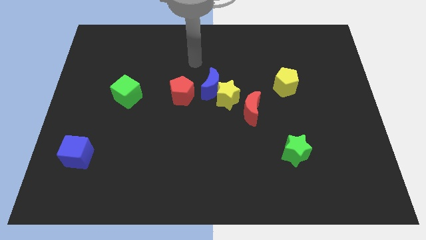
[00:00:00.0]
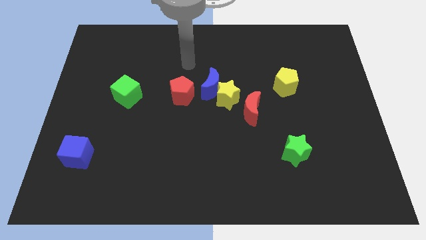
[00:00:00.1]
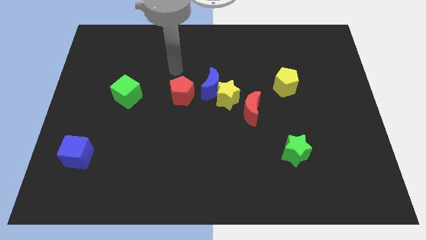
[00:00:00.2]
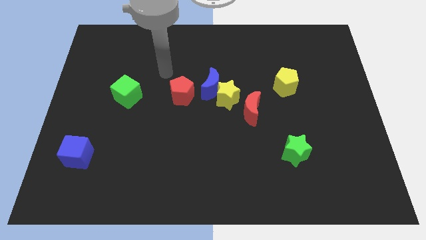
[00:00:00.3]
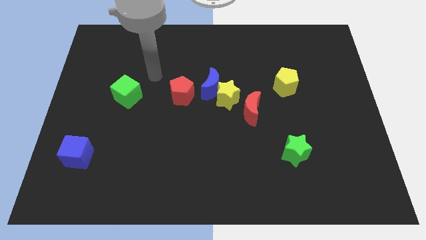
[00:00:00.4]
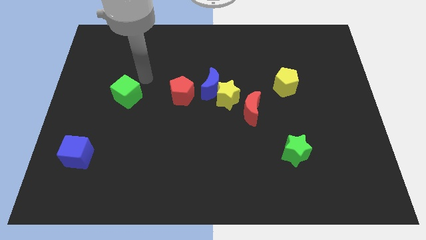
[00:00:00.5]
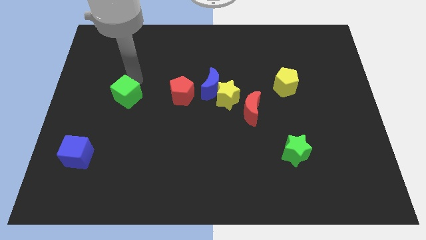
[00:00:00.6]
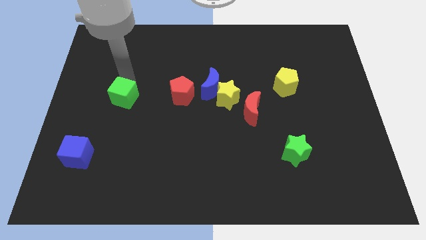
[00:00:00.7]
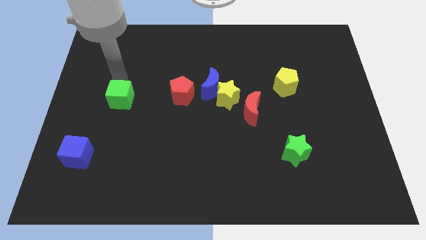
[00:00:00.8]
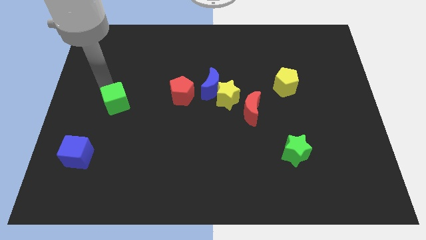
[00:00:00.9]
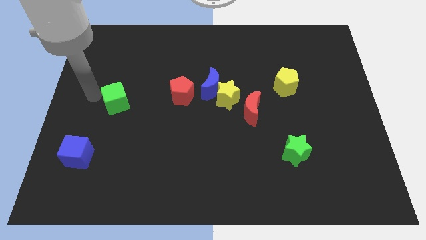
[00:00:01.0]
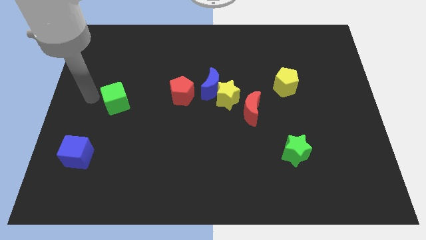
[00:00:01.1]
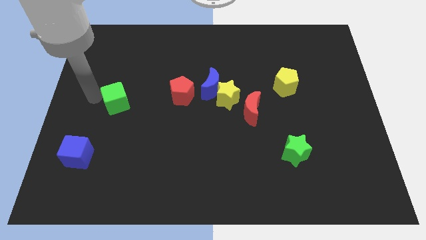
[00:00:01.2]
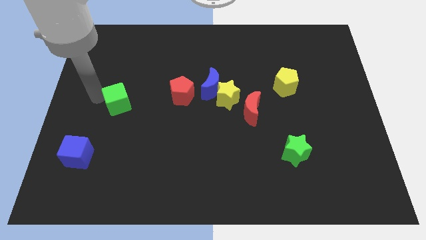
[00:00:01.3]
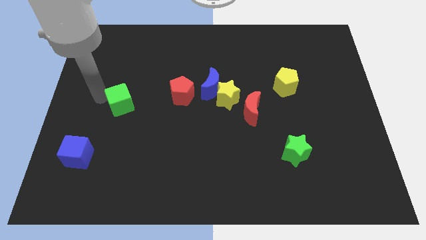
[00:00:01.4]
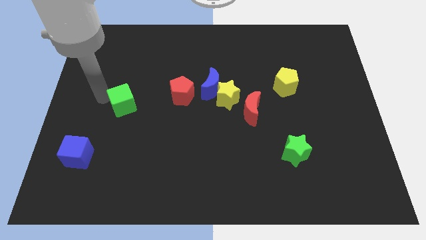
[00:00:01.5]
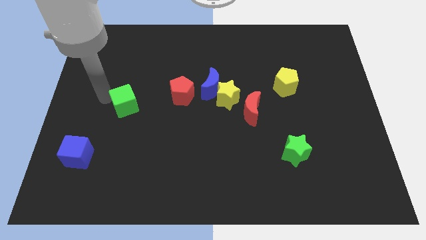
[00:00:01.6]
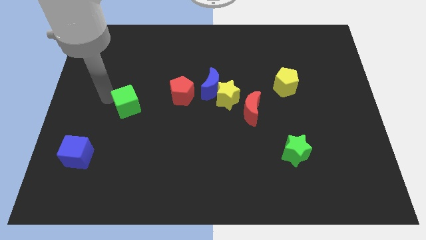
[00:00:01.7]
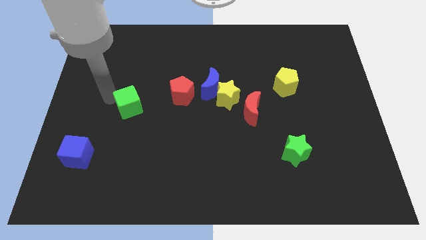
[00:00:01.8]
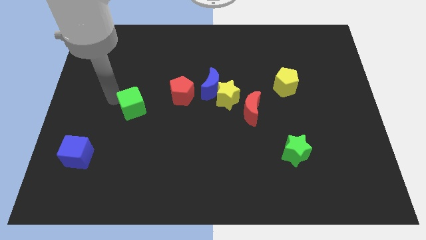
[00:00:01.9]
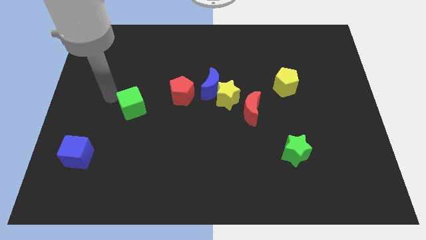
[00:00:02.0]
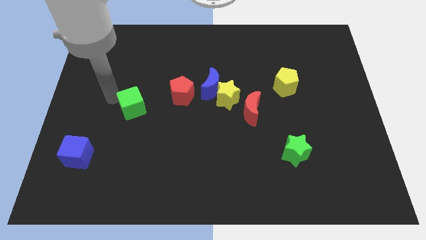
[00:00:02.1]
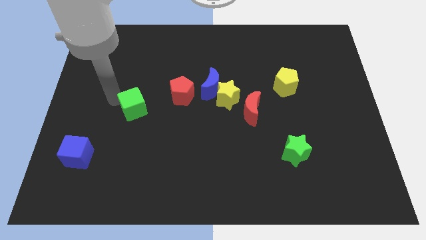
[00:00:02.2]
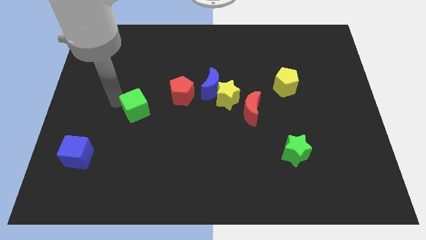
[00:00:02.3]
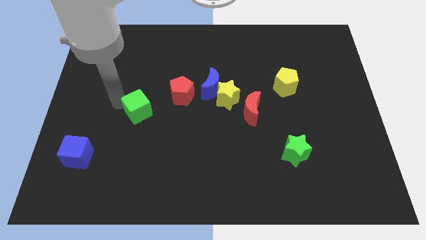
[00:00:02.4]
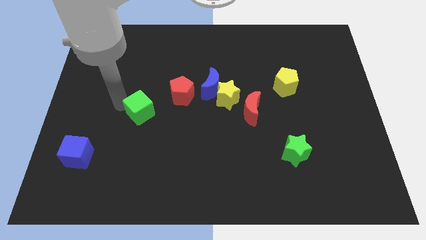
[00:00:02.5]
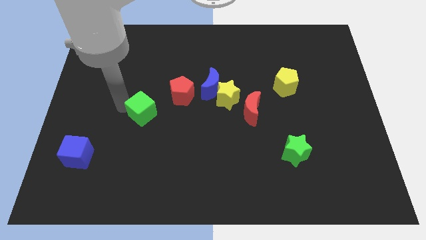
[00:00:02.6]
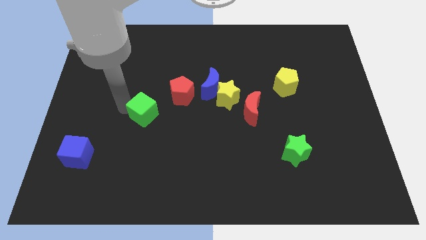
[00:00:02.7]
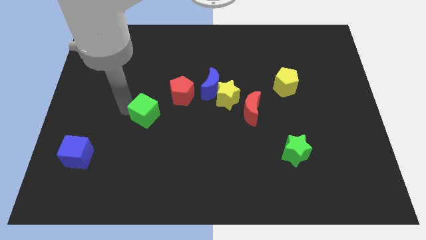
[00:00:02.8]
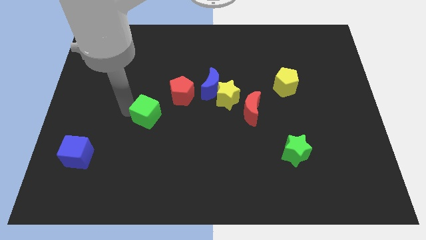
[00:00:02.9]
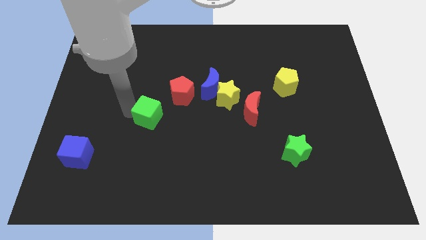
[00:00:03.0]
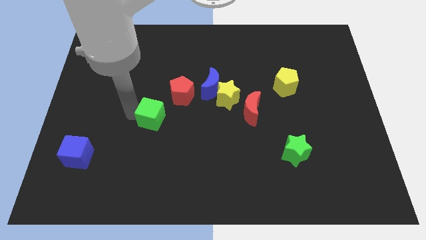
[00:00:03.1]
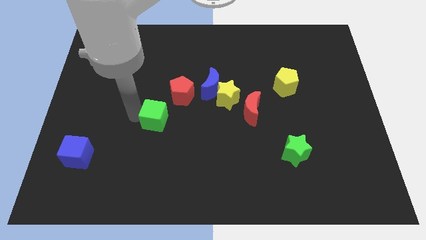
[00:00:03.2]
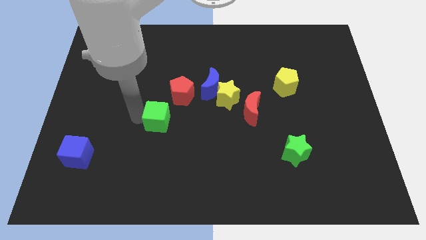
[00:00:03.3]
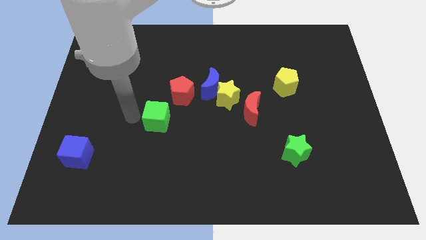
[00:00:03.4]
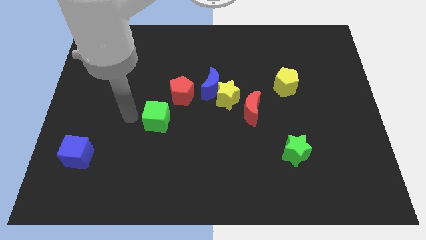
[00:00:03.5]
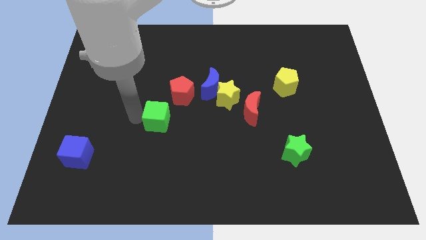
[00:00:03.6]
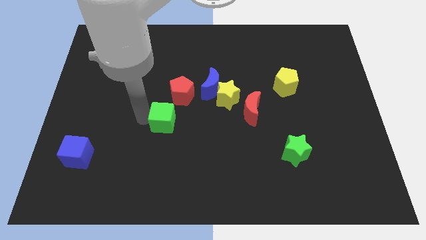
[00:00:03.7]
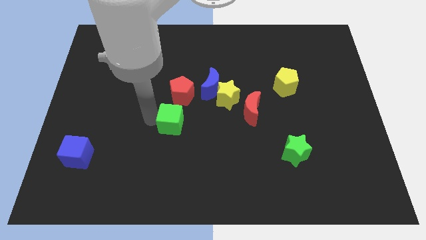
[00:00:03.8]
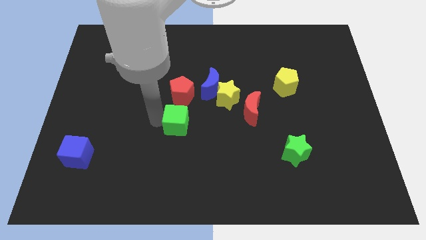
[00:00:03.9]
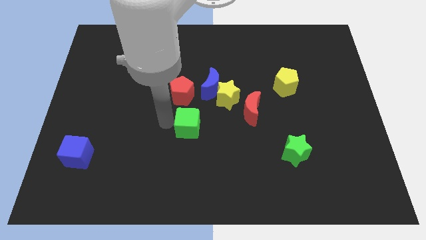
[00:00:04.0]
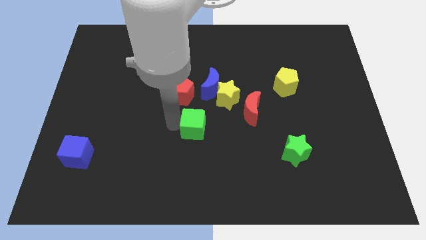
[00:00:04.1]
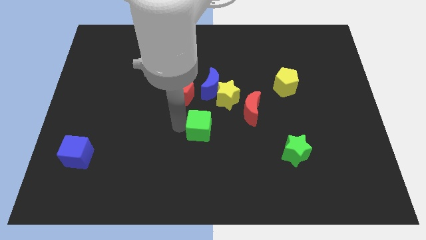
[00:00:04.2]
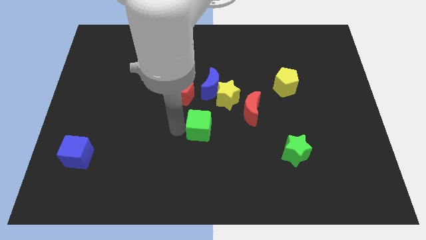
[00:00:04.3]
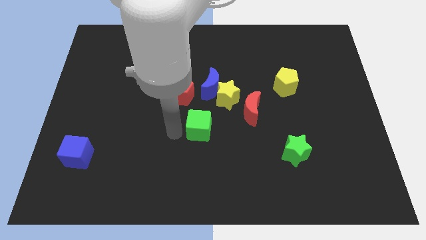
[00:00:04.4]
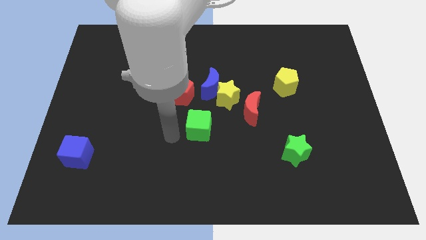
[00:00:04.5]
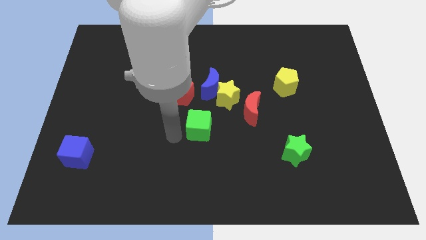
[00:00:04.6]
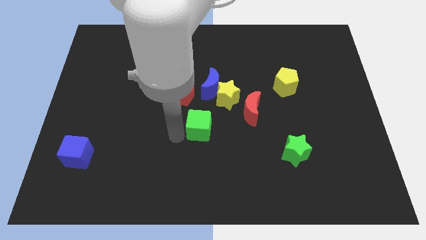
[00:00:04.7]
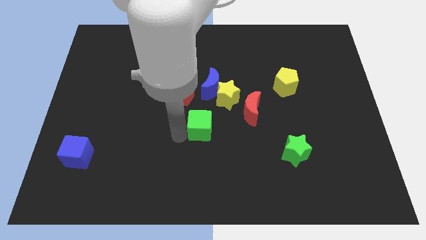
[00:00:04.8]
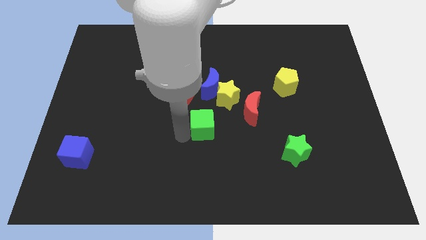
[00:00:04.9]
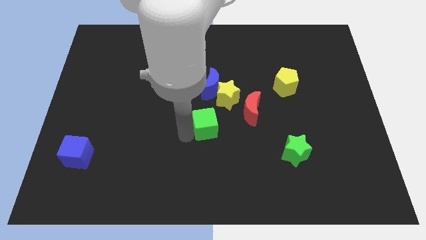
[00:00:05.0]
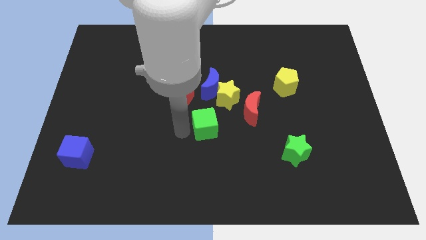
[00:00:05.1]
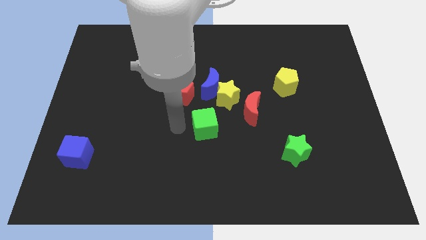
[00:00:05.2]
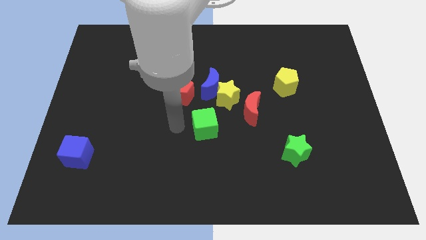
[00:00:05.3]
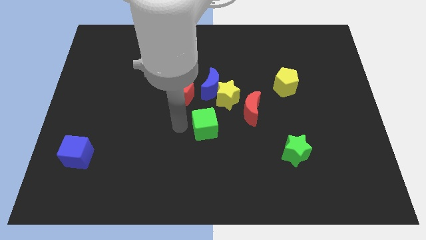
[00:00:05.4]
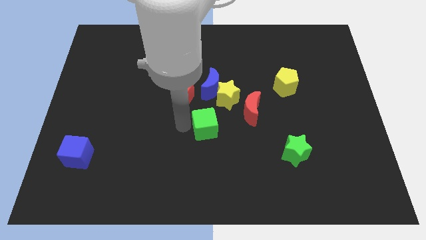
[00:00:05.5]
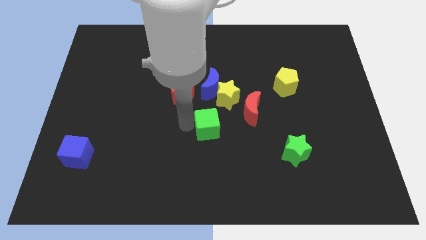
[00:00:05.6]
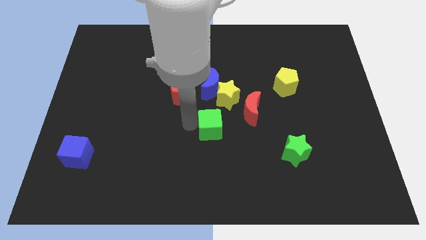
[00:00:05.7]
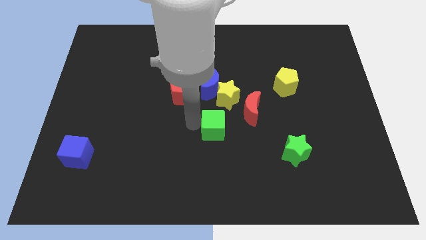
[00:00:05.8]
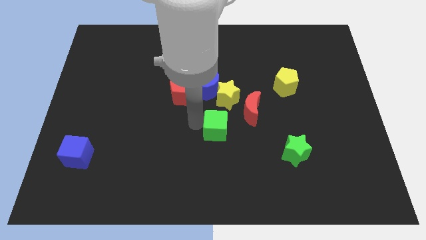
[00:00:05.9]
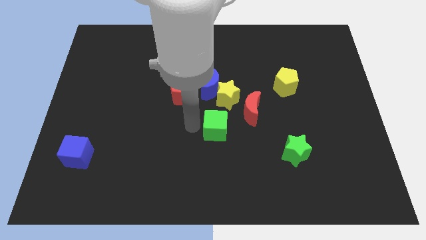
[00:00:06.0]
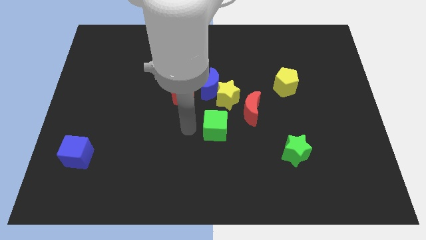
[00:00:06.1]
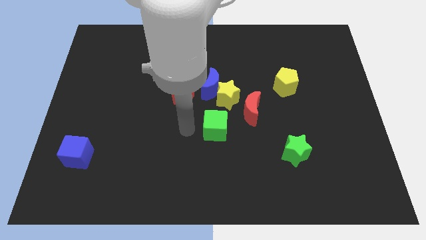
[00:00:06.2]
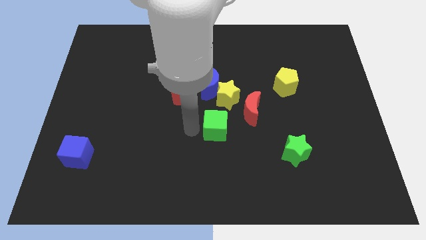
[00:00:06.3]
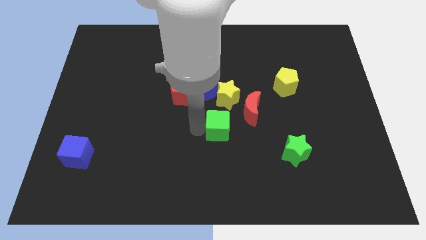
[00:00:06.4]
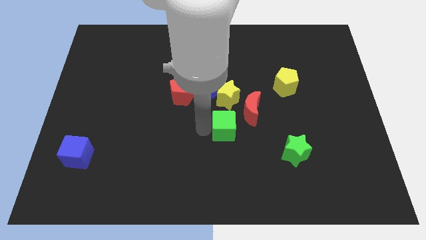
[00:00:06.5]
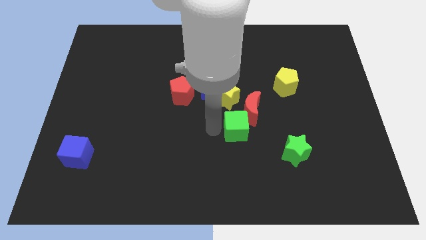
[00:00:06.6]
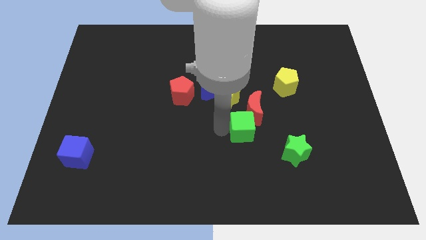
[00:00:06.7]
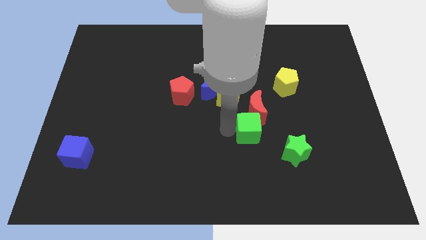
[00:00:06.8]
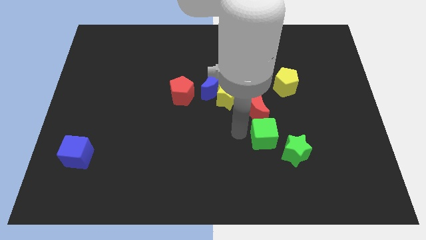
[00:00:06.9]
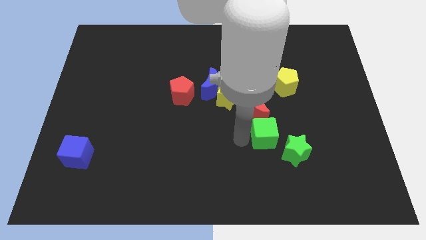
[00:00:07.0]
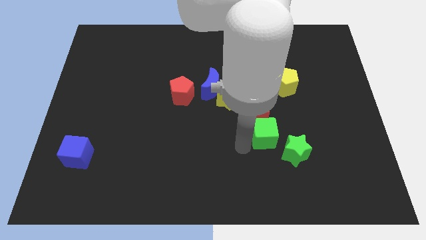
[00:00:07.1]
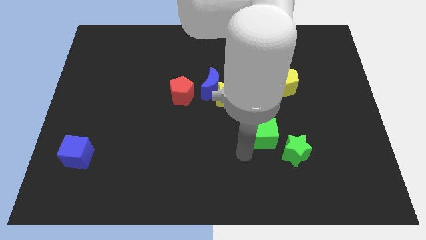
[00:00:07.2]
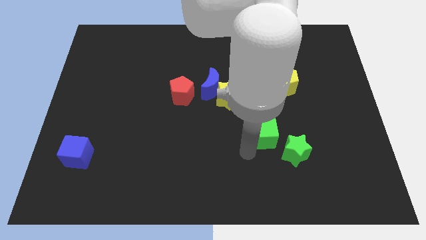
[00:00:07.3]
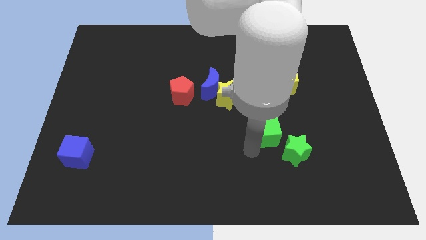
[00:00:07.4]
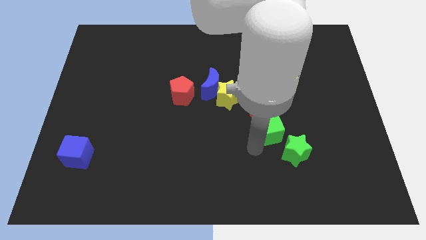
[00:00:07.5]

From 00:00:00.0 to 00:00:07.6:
put the green cube above the green star
